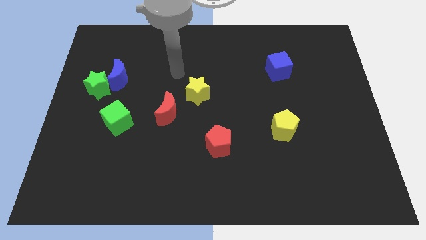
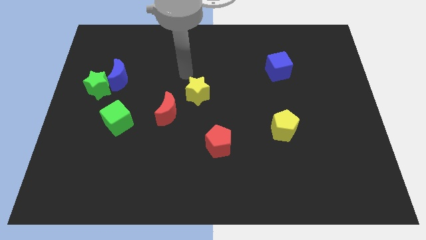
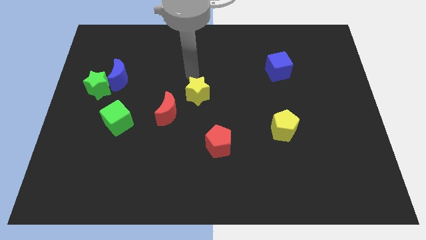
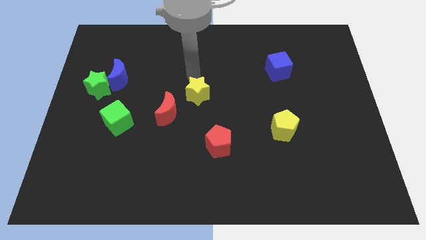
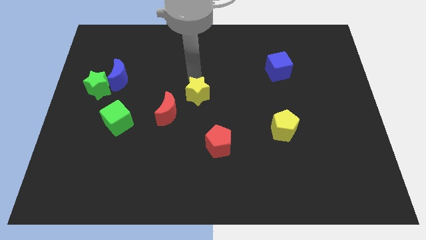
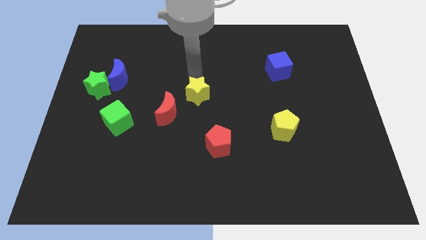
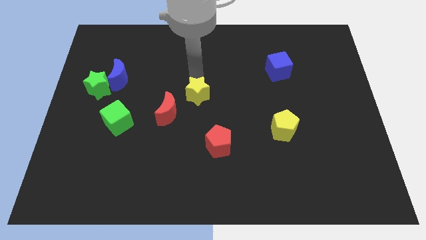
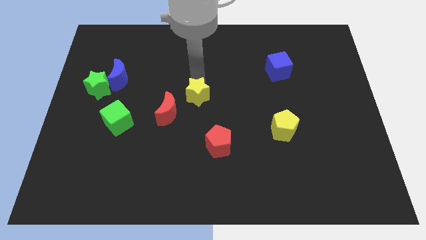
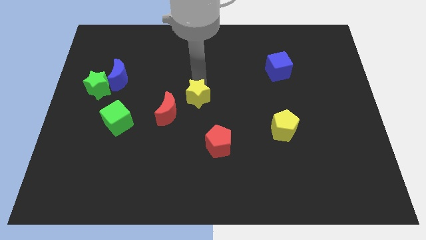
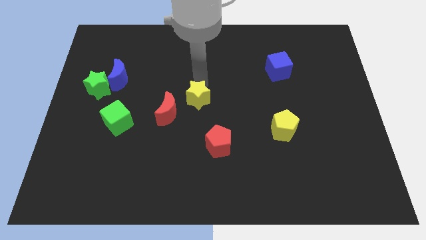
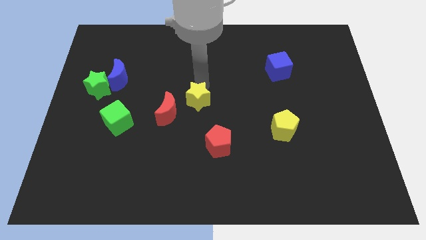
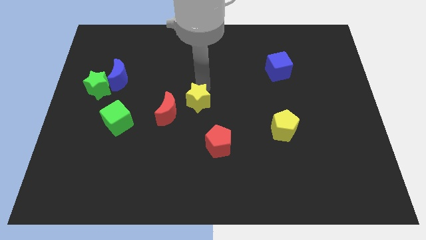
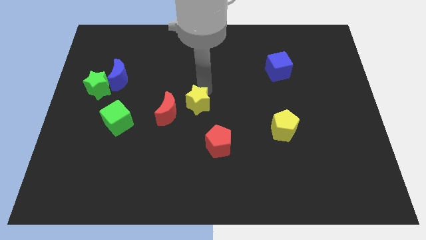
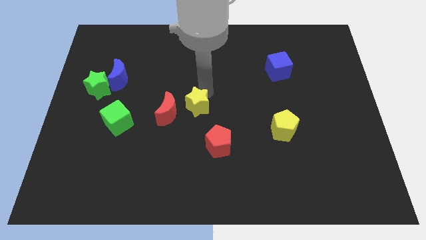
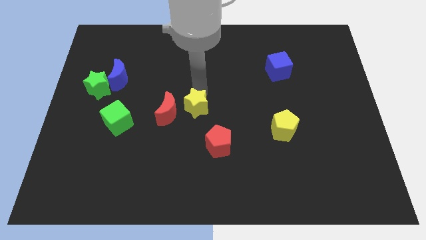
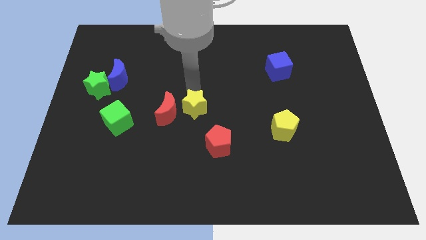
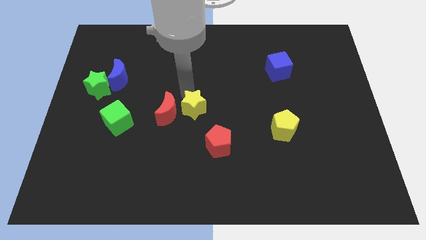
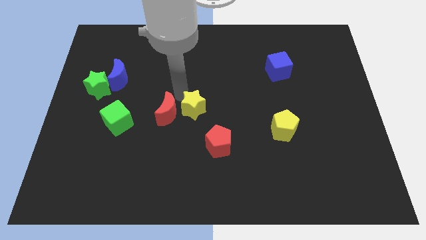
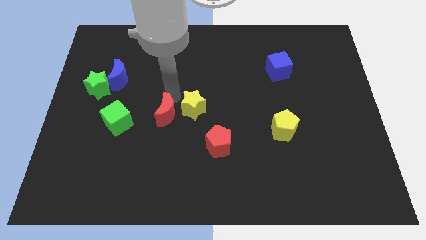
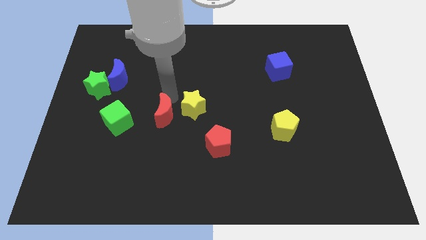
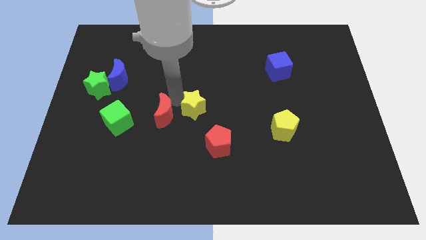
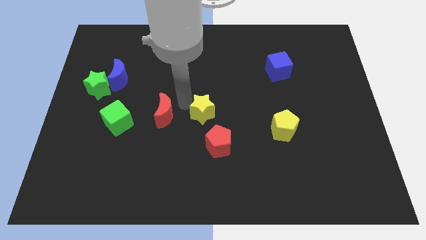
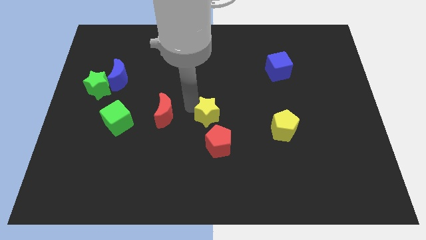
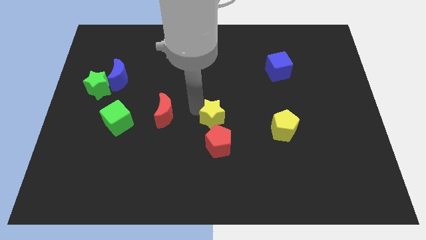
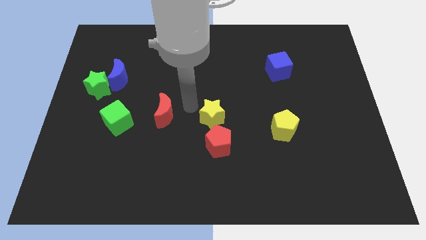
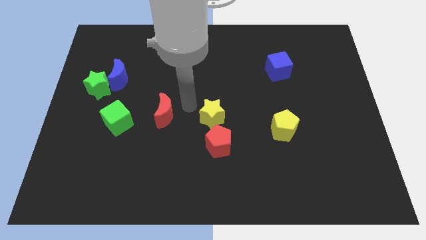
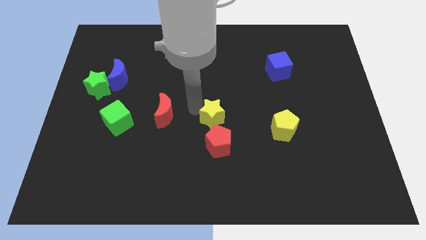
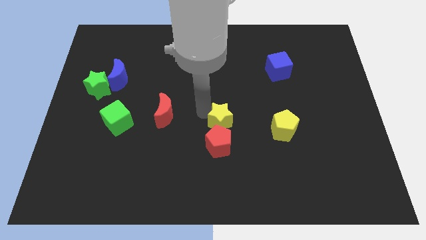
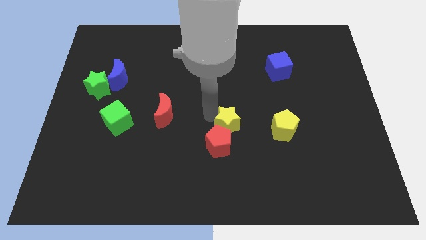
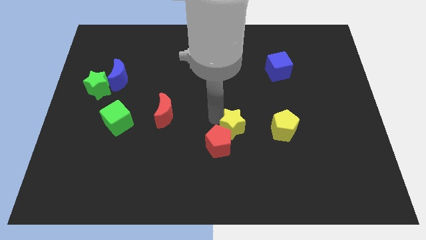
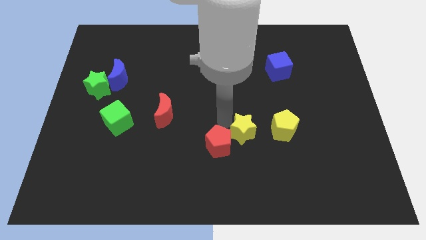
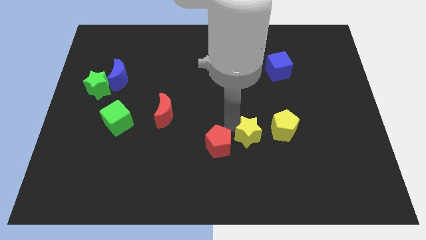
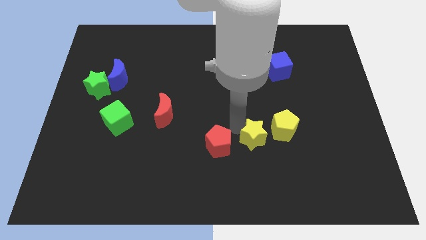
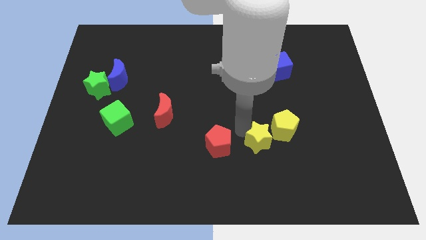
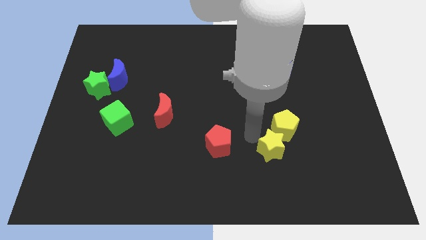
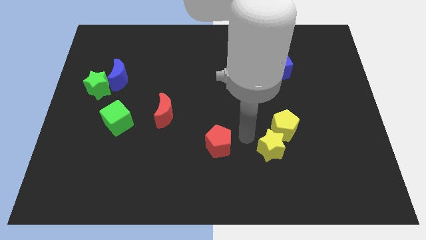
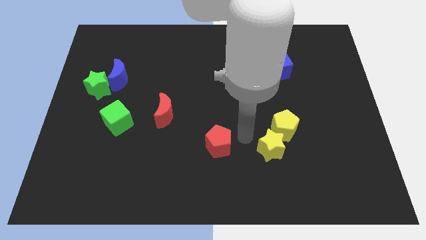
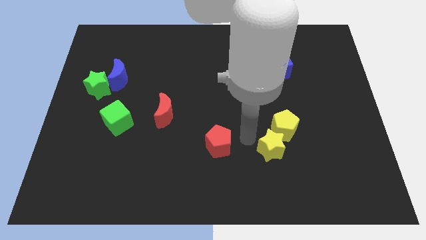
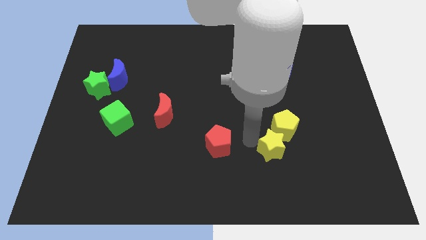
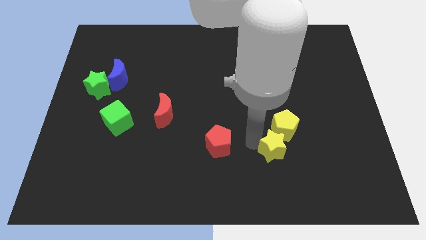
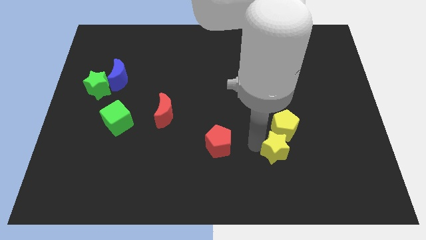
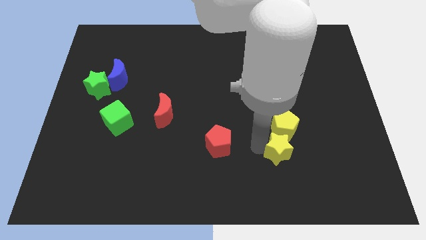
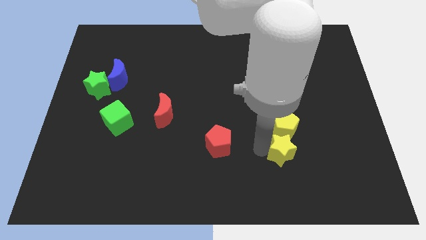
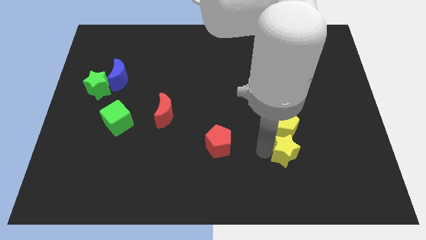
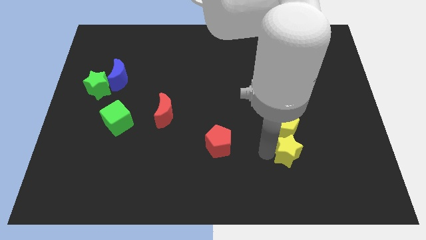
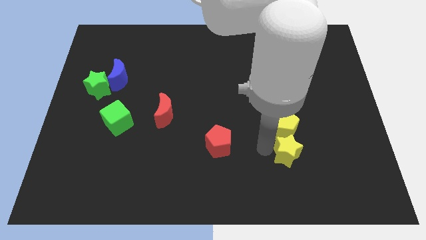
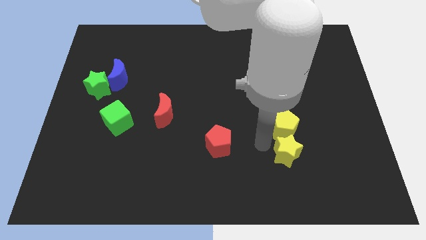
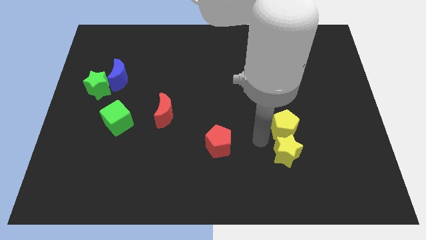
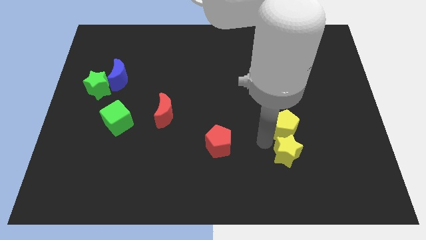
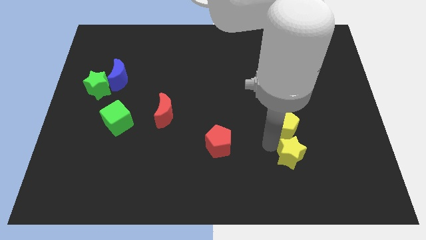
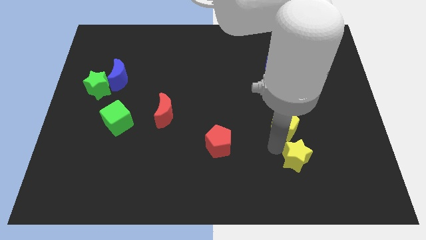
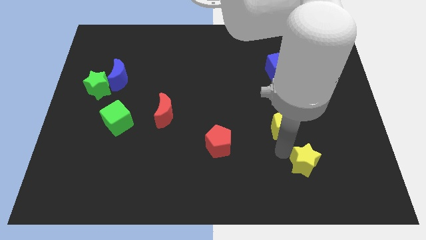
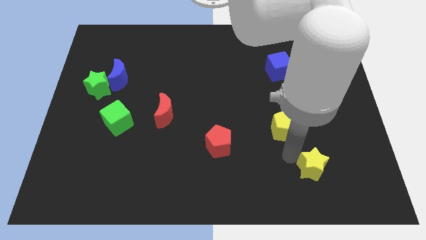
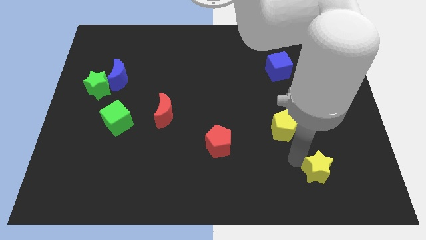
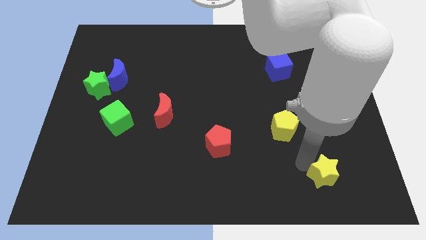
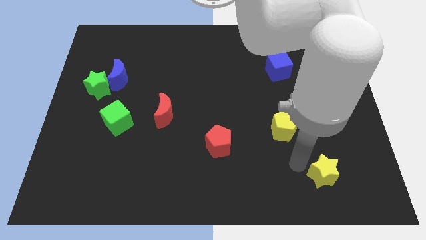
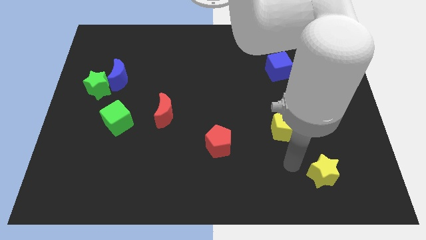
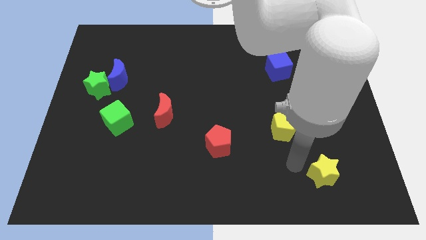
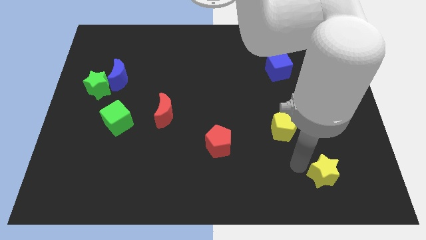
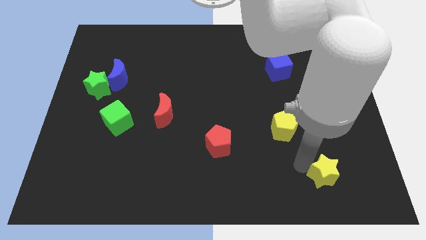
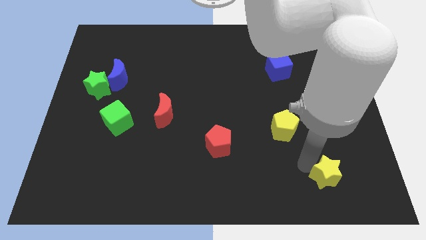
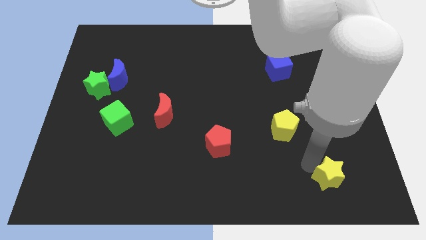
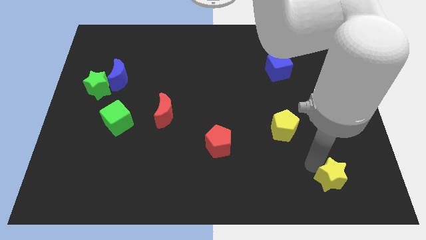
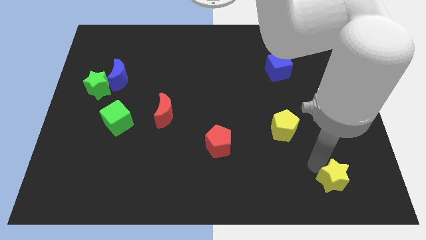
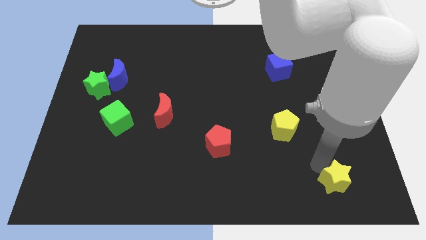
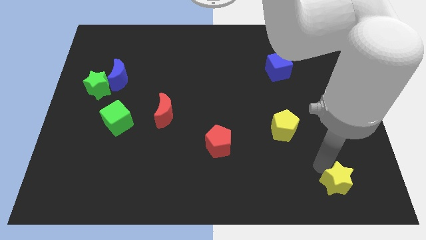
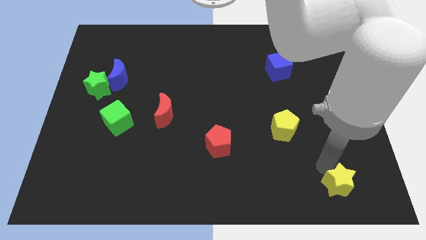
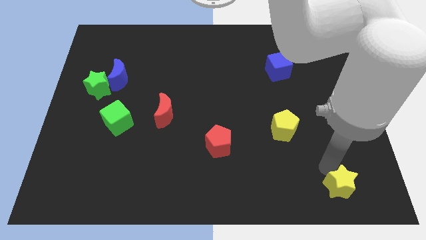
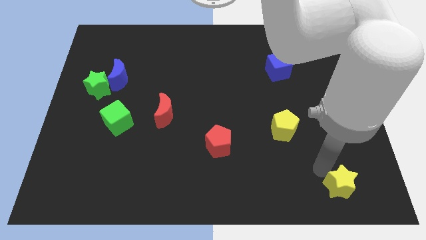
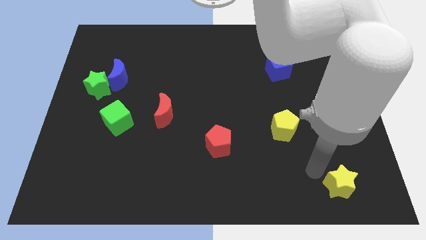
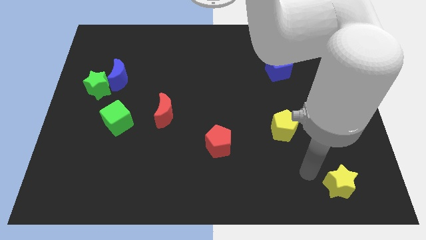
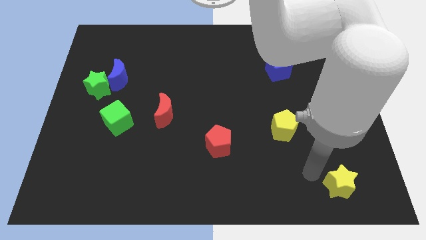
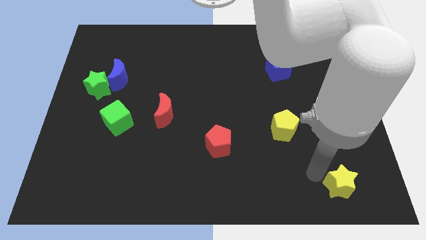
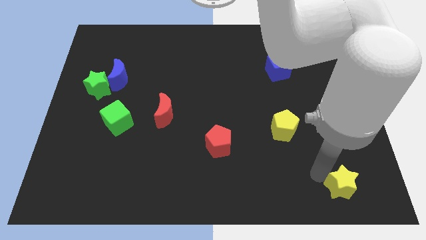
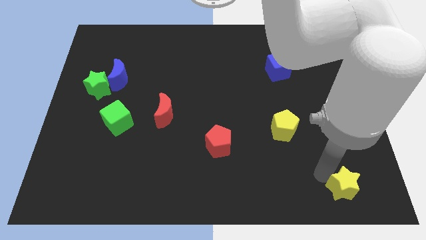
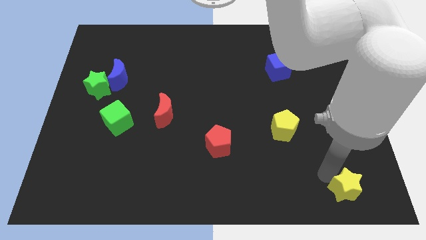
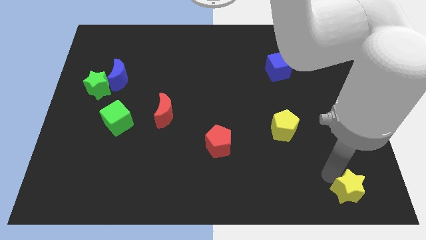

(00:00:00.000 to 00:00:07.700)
push the yellow star to the lower right corner
